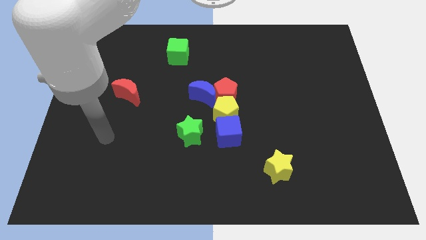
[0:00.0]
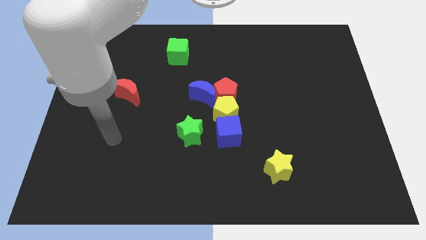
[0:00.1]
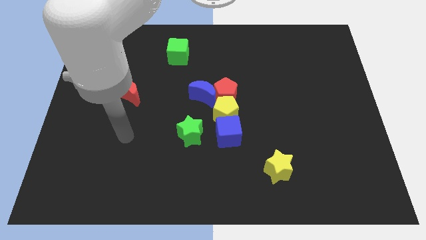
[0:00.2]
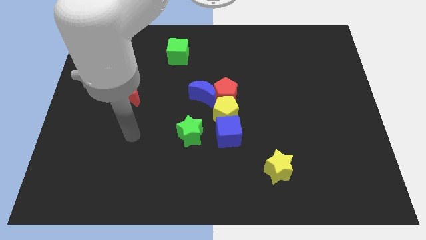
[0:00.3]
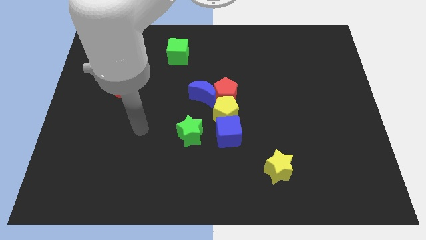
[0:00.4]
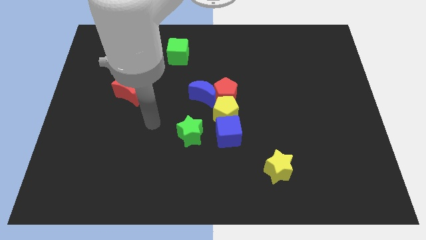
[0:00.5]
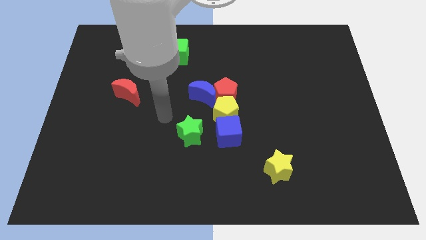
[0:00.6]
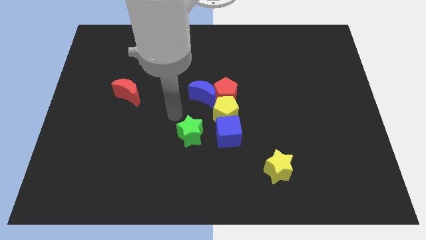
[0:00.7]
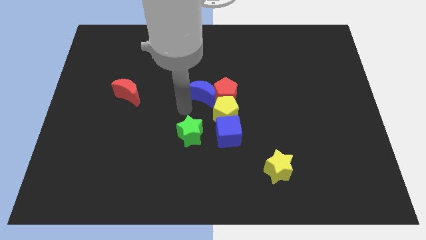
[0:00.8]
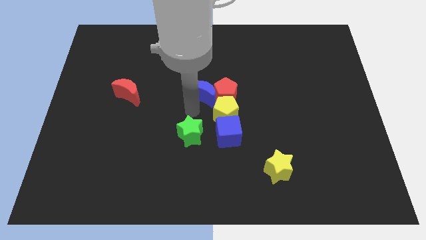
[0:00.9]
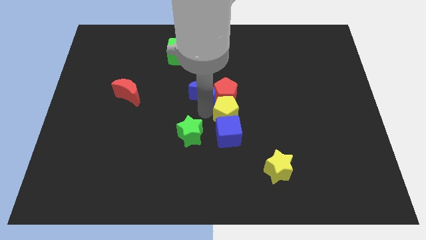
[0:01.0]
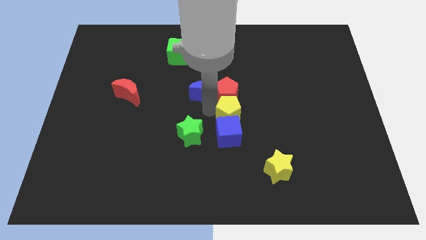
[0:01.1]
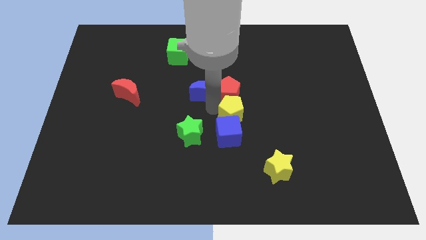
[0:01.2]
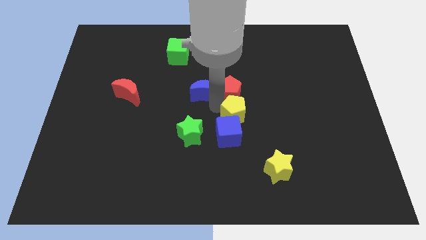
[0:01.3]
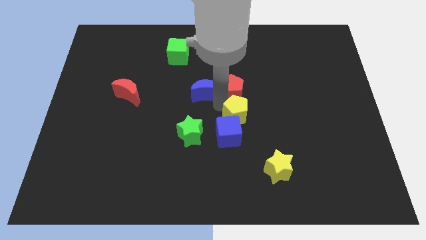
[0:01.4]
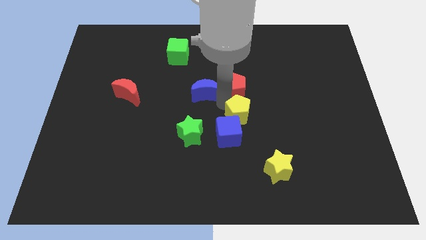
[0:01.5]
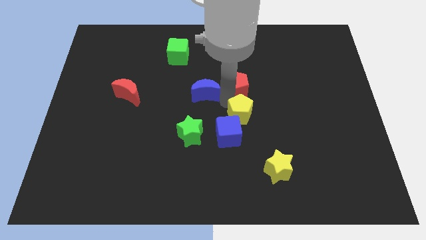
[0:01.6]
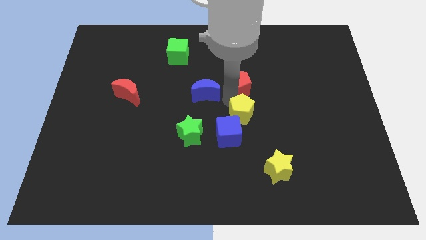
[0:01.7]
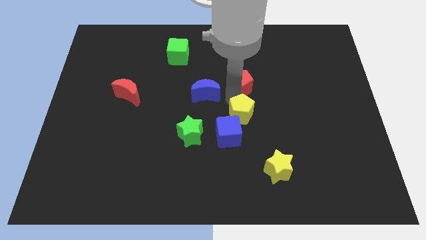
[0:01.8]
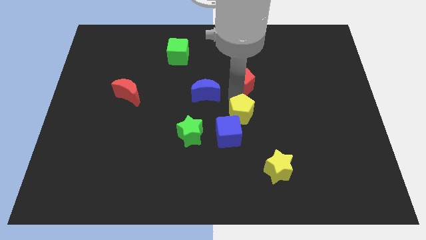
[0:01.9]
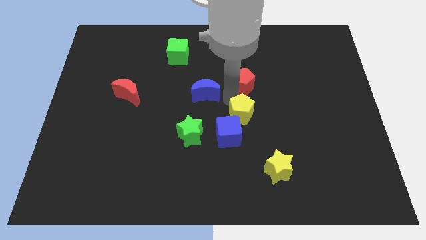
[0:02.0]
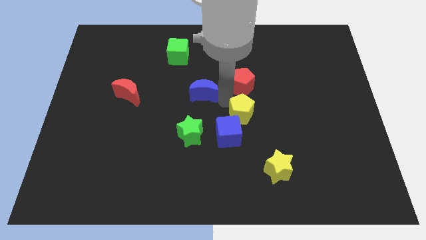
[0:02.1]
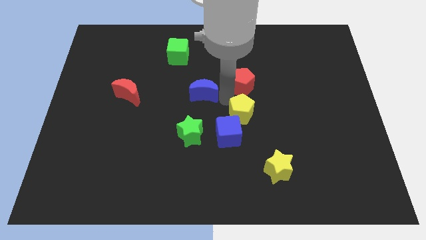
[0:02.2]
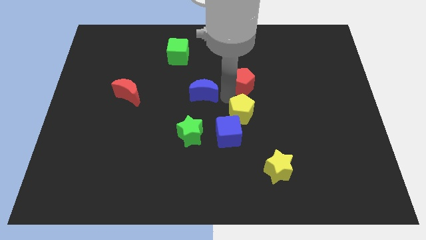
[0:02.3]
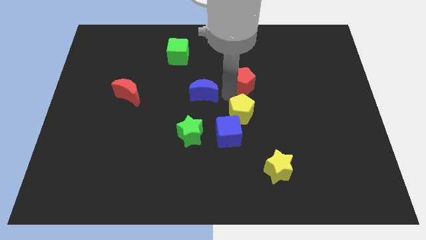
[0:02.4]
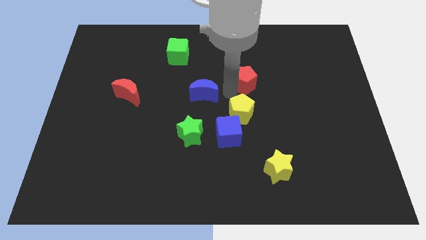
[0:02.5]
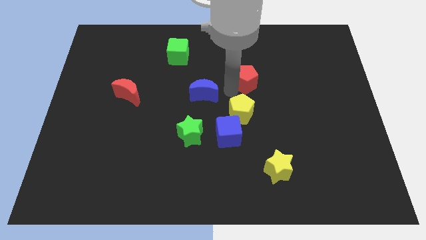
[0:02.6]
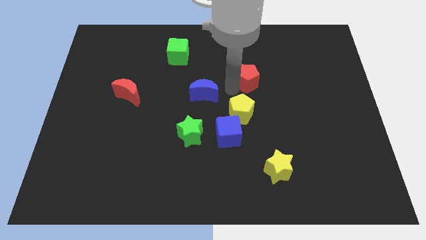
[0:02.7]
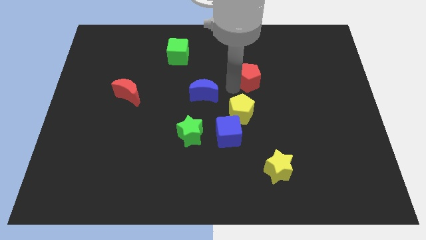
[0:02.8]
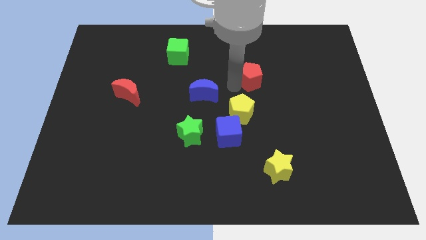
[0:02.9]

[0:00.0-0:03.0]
pull the red pentagon apart from the blue moon and yellow pentagon

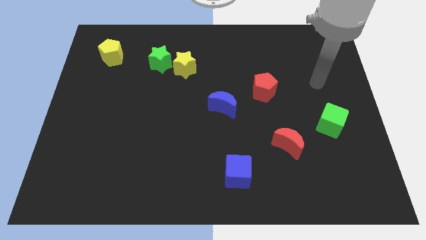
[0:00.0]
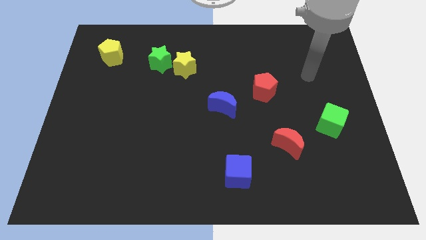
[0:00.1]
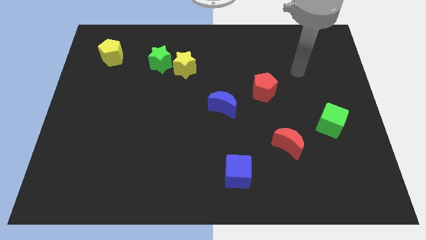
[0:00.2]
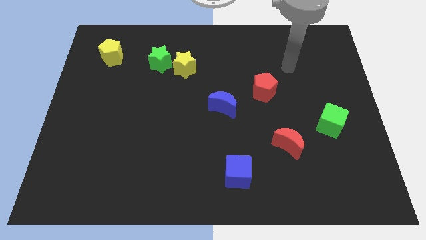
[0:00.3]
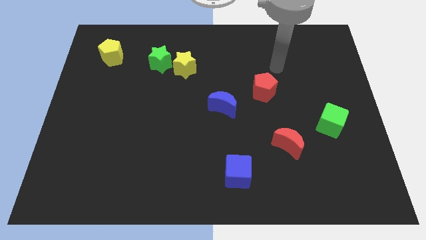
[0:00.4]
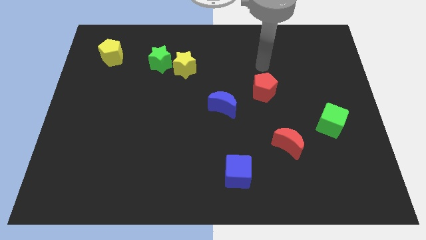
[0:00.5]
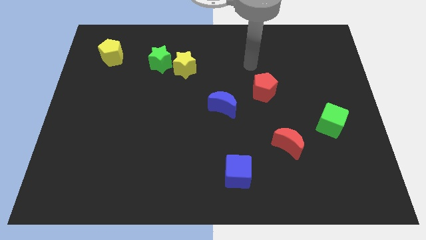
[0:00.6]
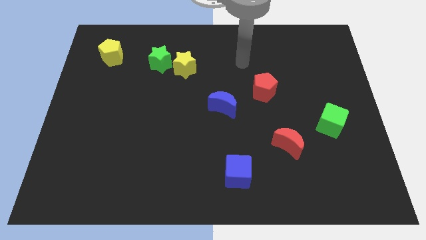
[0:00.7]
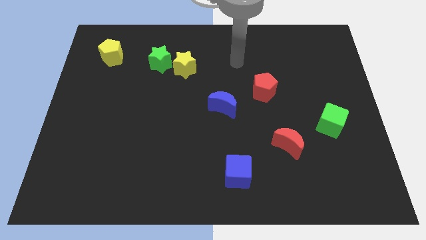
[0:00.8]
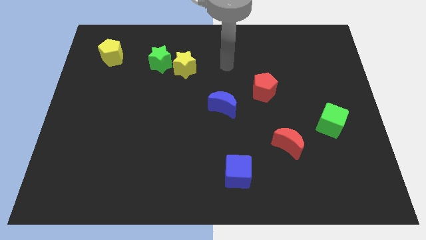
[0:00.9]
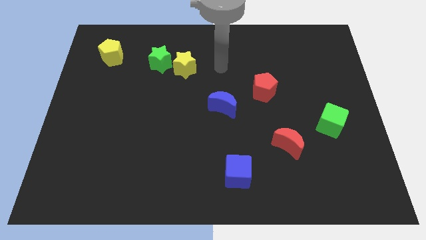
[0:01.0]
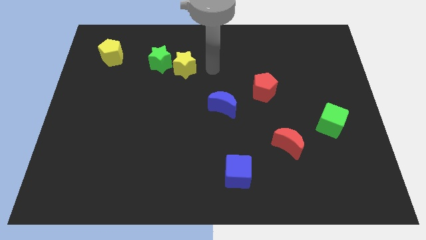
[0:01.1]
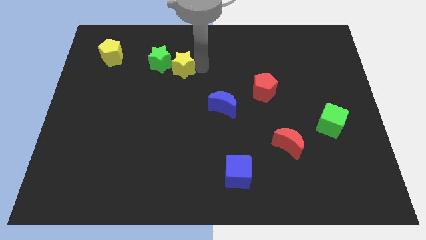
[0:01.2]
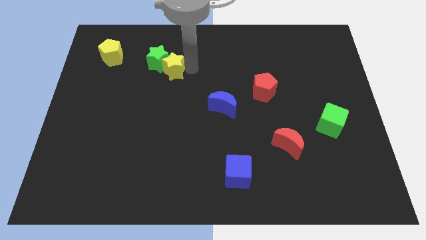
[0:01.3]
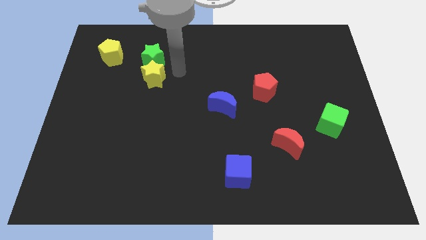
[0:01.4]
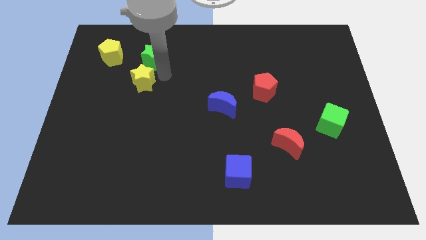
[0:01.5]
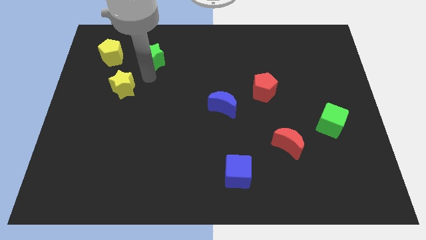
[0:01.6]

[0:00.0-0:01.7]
move the green star away from the yellow star

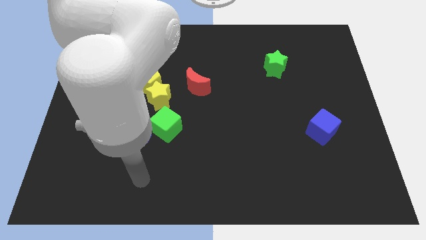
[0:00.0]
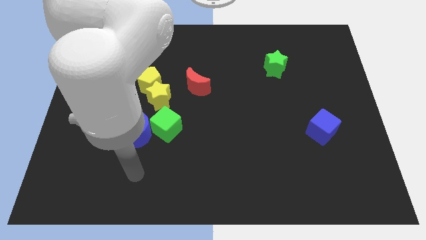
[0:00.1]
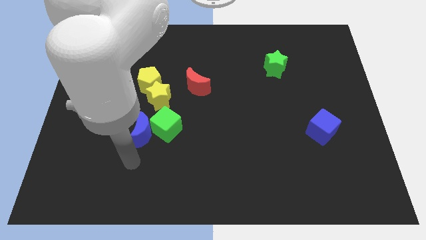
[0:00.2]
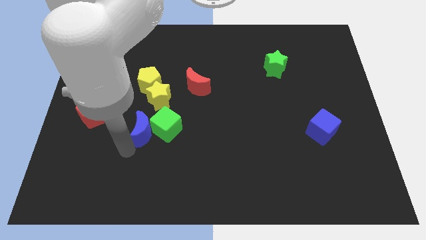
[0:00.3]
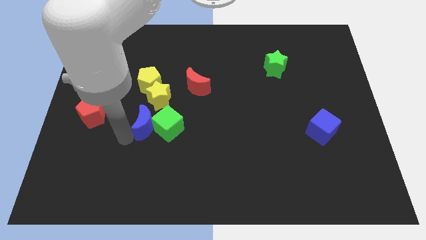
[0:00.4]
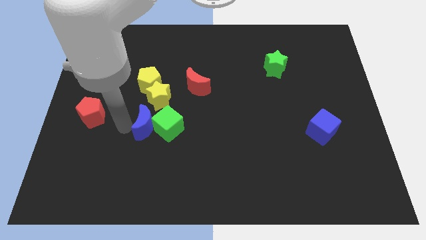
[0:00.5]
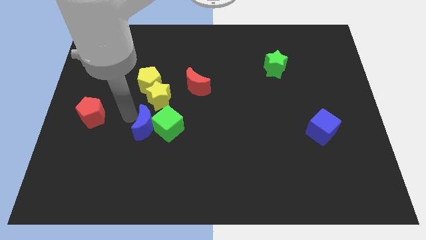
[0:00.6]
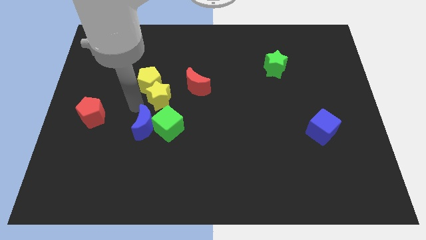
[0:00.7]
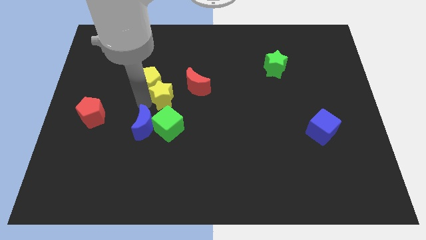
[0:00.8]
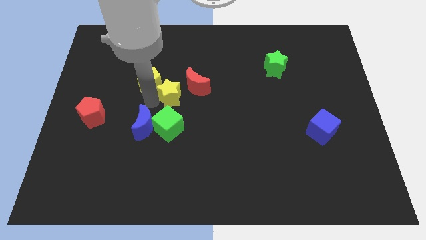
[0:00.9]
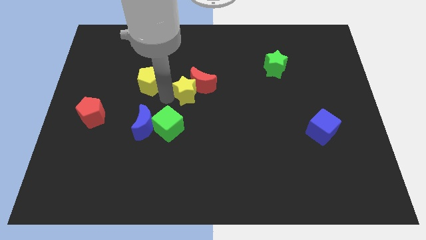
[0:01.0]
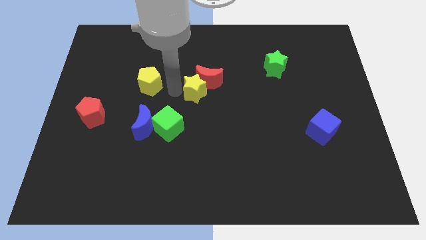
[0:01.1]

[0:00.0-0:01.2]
pull the yellow pentagon apart from the yellow star

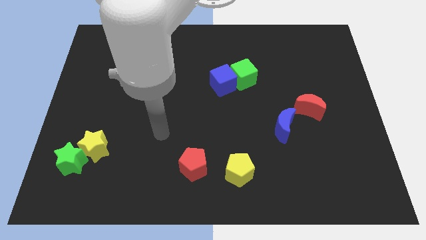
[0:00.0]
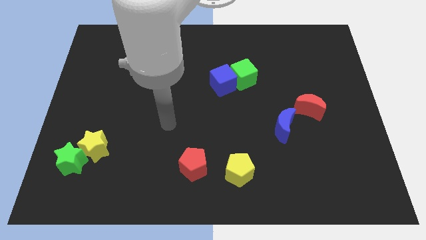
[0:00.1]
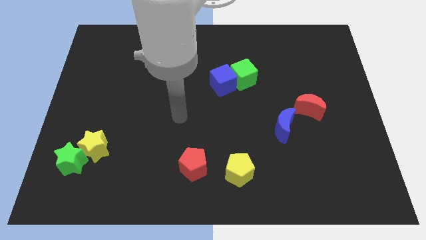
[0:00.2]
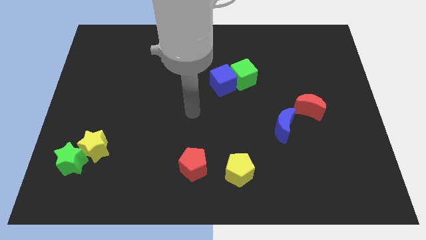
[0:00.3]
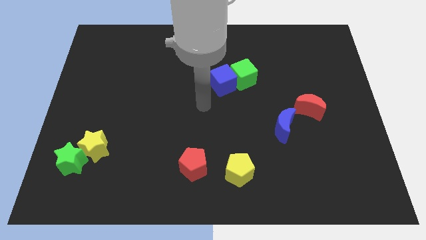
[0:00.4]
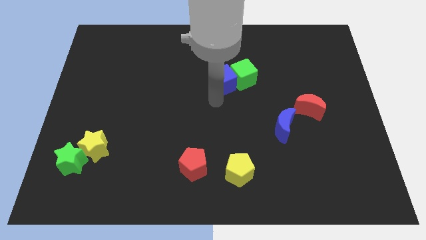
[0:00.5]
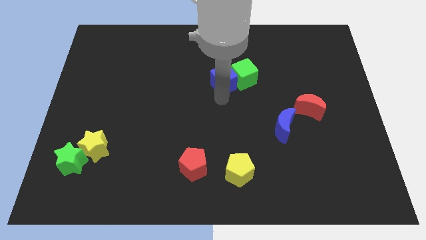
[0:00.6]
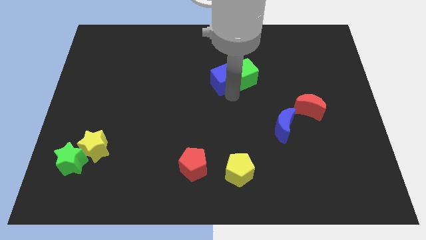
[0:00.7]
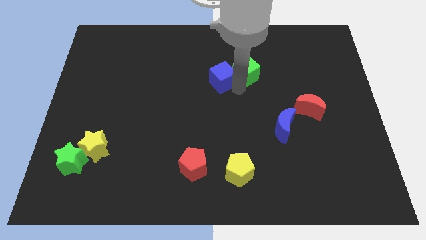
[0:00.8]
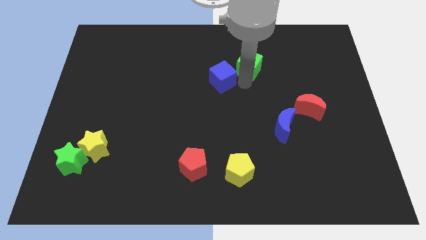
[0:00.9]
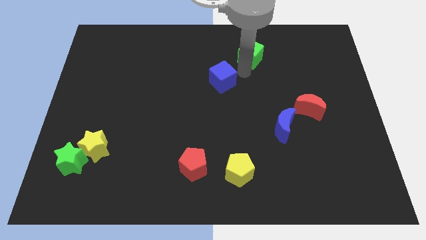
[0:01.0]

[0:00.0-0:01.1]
move the blue cube away from the green cube

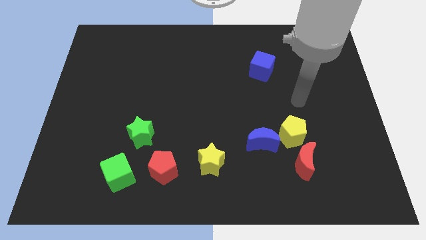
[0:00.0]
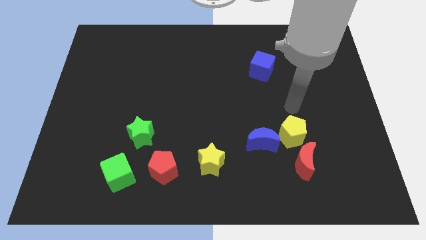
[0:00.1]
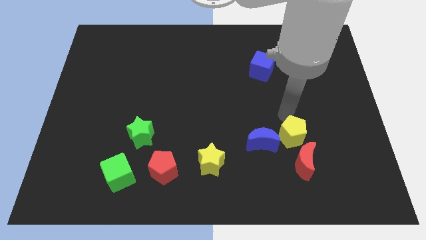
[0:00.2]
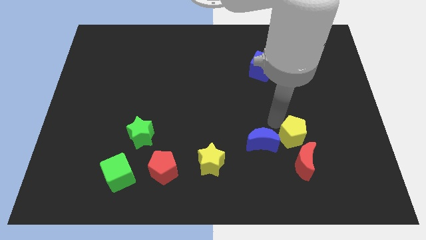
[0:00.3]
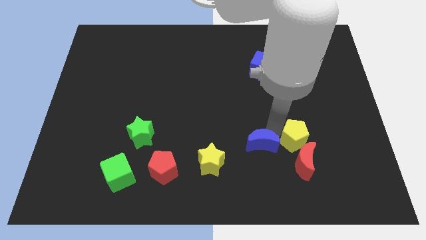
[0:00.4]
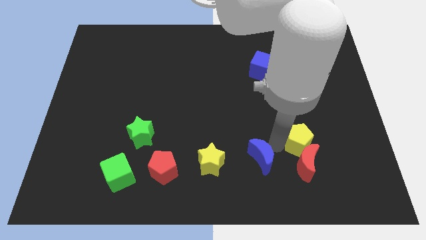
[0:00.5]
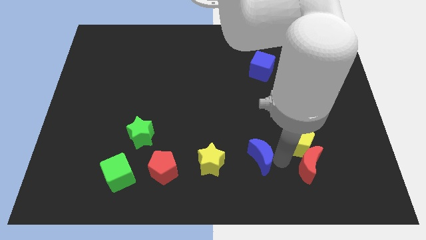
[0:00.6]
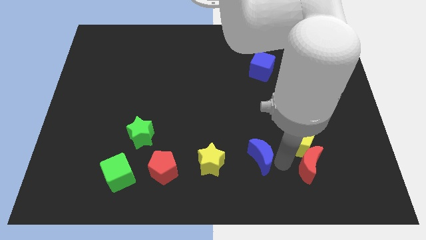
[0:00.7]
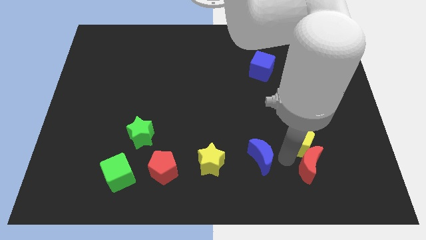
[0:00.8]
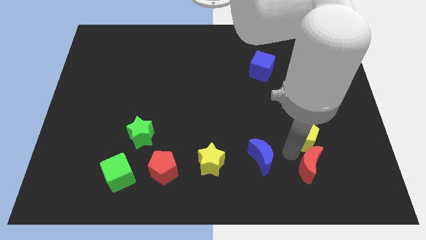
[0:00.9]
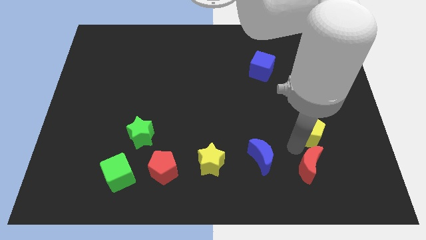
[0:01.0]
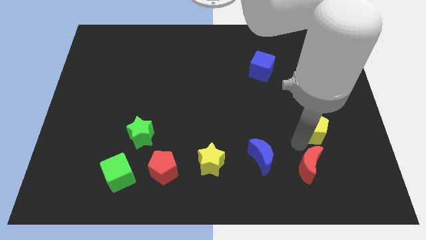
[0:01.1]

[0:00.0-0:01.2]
move the yellow pentagon away from the red moon and blue moon

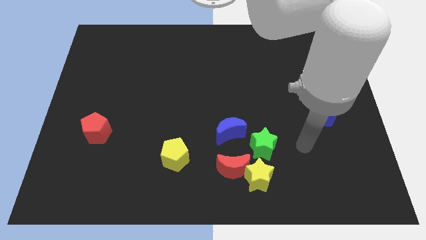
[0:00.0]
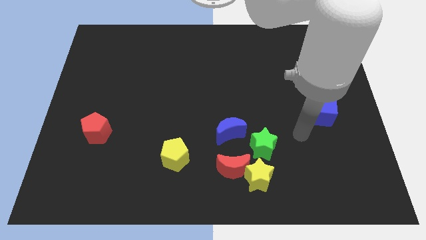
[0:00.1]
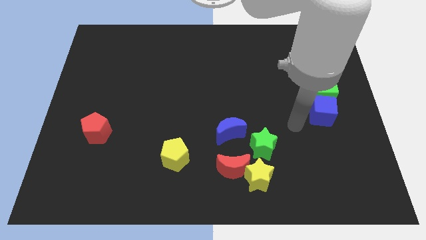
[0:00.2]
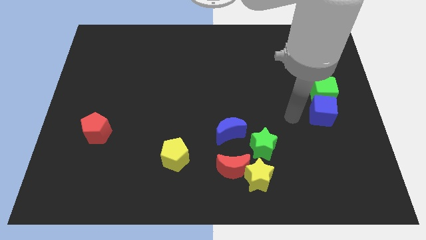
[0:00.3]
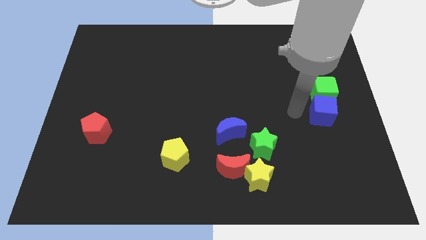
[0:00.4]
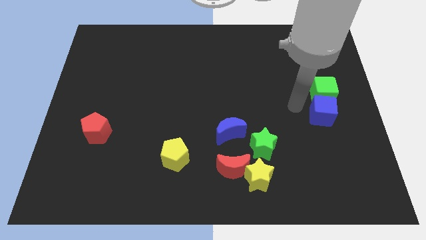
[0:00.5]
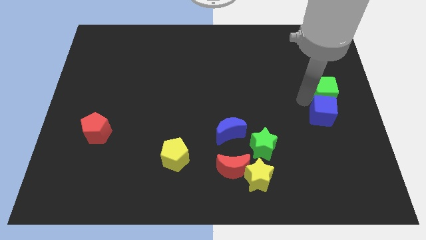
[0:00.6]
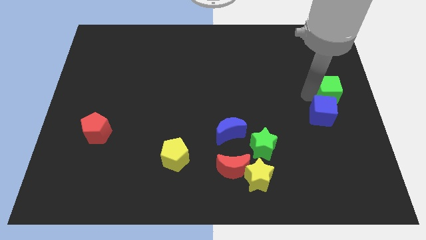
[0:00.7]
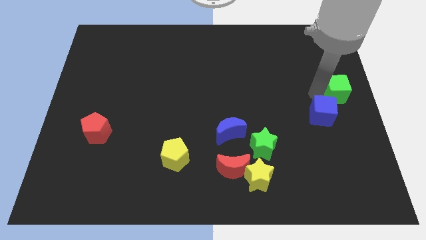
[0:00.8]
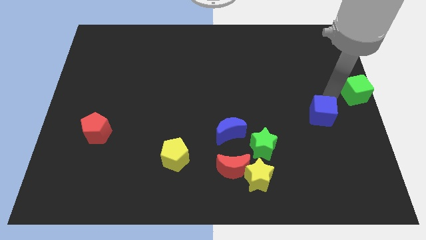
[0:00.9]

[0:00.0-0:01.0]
pull the blue cube apart from the green cube

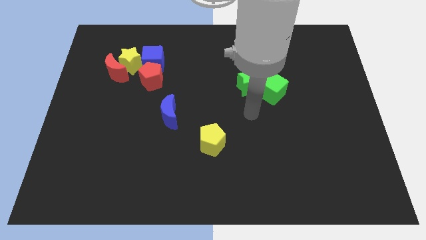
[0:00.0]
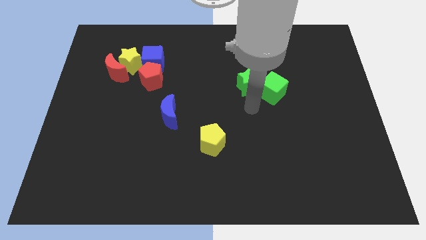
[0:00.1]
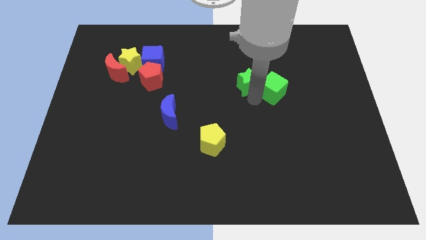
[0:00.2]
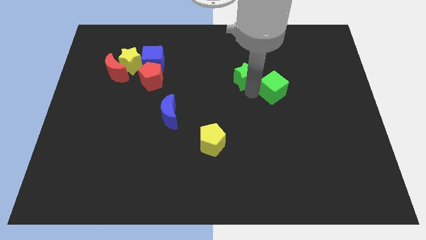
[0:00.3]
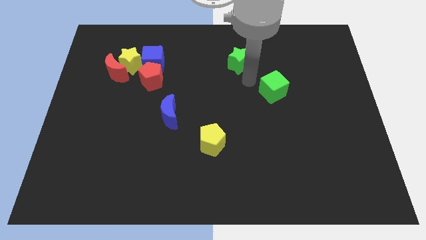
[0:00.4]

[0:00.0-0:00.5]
pull the green cube apart from the green star
